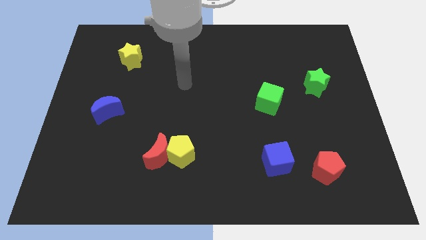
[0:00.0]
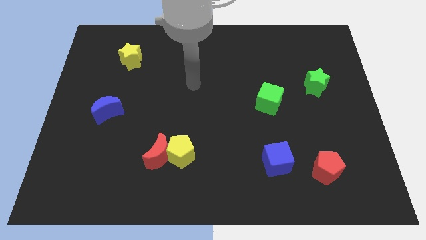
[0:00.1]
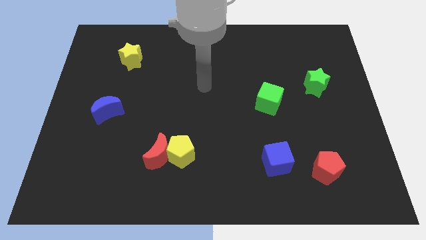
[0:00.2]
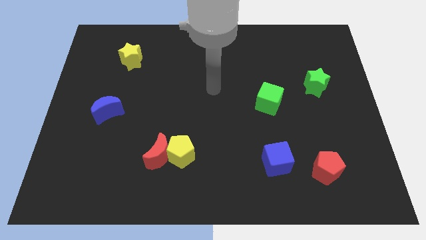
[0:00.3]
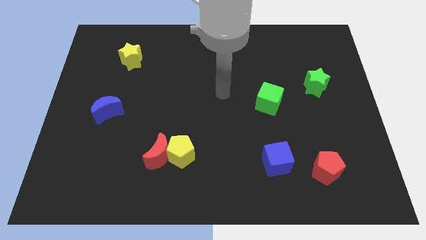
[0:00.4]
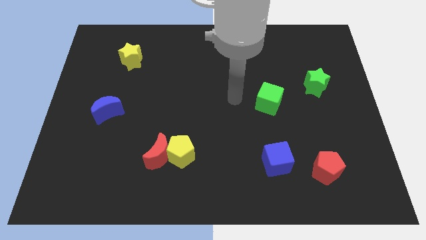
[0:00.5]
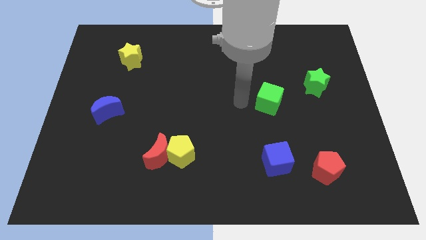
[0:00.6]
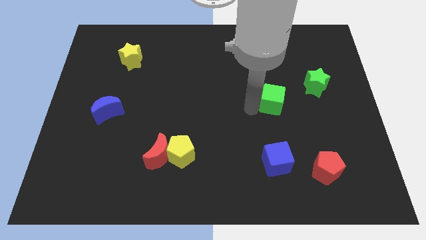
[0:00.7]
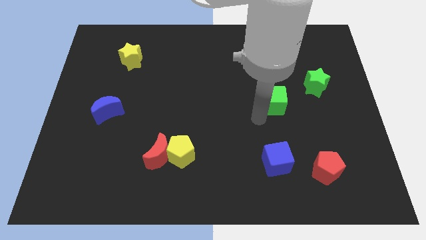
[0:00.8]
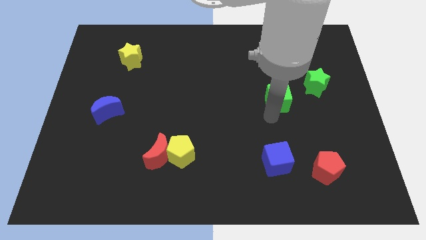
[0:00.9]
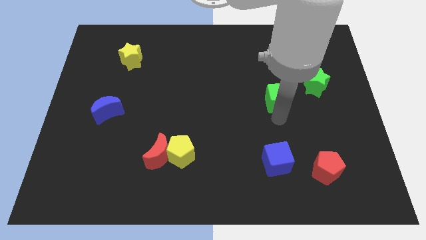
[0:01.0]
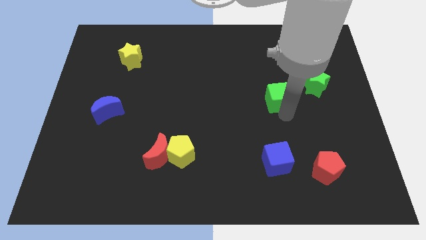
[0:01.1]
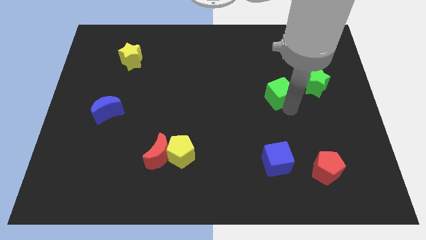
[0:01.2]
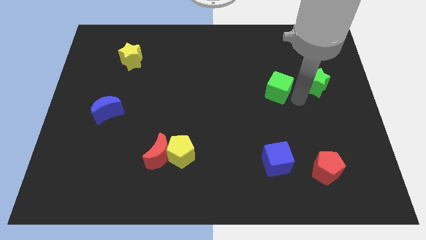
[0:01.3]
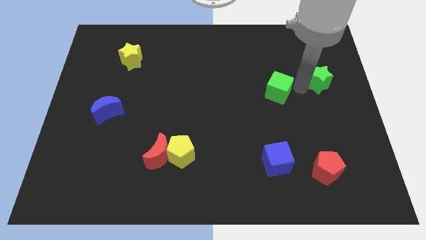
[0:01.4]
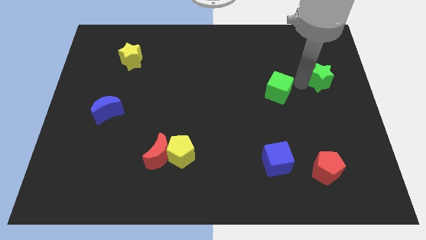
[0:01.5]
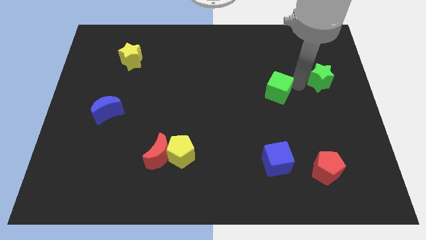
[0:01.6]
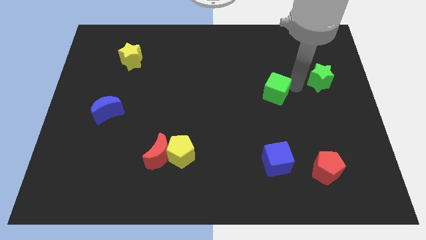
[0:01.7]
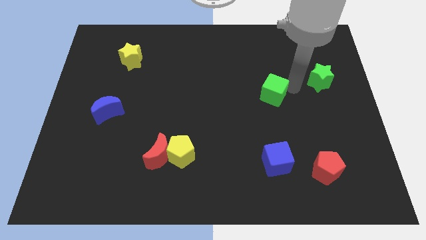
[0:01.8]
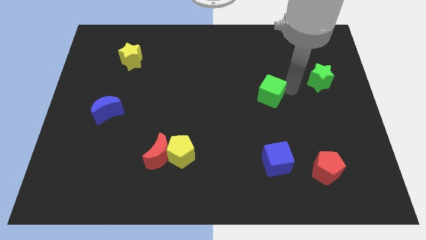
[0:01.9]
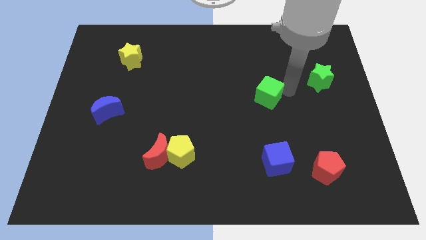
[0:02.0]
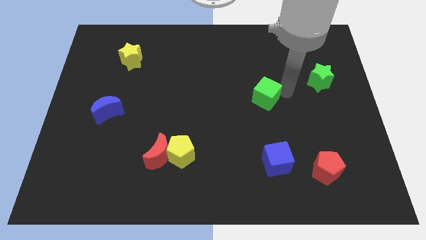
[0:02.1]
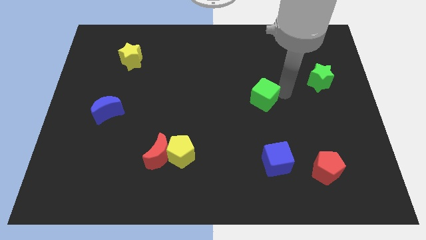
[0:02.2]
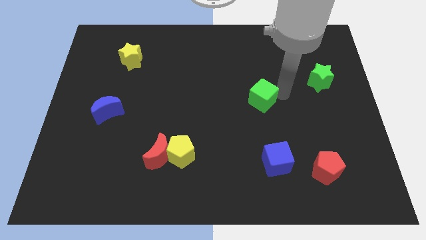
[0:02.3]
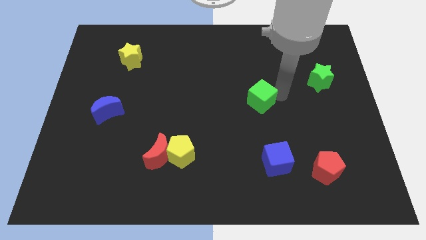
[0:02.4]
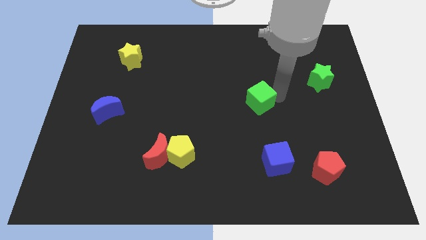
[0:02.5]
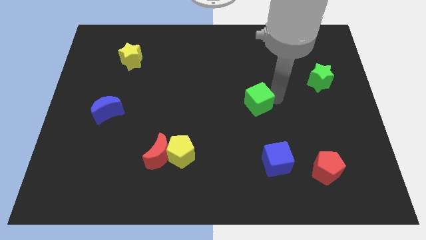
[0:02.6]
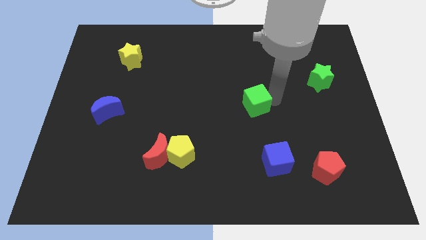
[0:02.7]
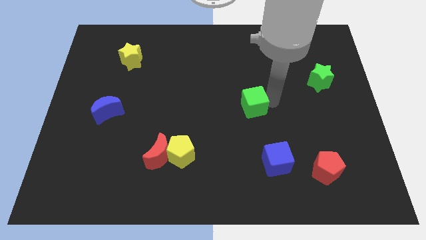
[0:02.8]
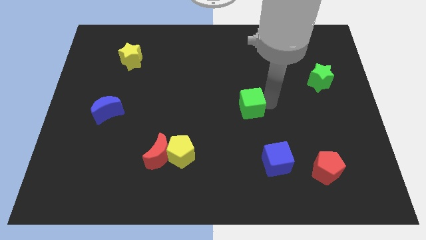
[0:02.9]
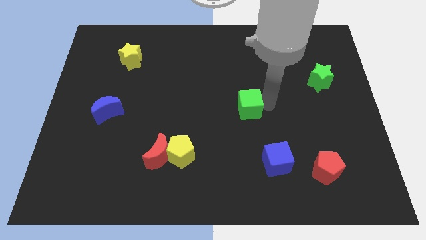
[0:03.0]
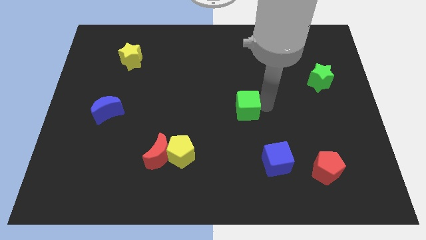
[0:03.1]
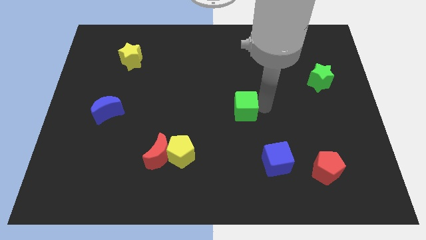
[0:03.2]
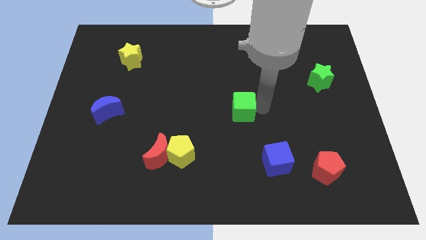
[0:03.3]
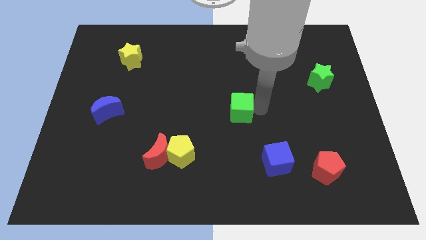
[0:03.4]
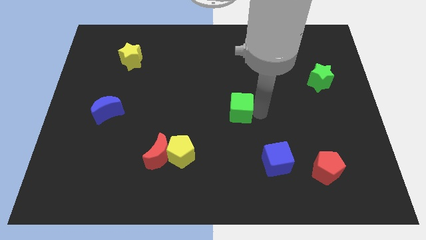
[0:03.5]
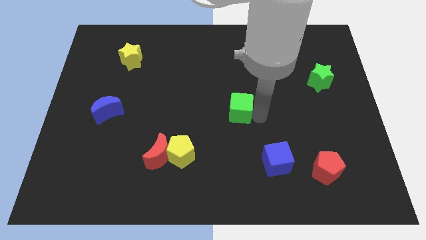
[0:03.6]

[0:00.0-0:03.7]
push the green cube a little left

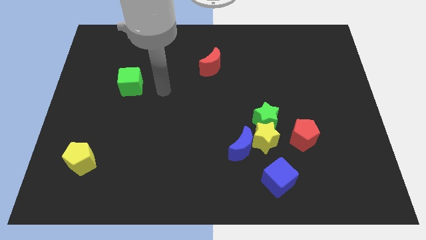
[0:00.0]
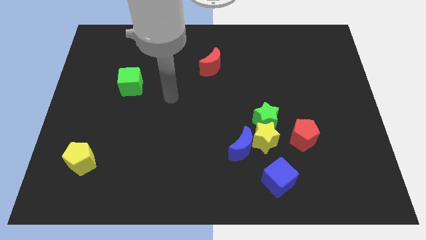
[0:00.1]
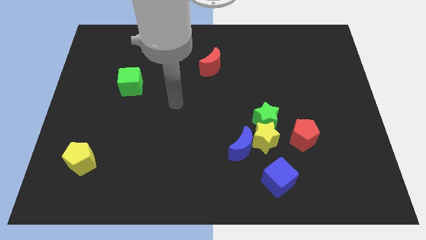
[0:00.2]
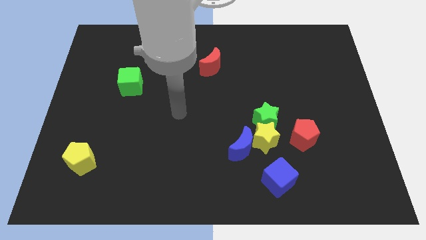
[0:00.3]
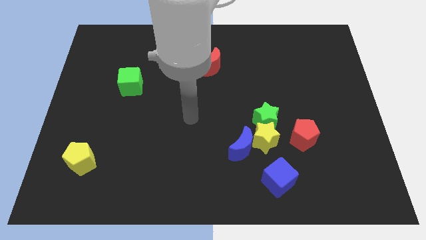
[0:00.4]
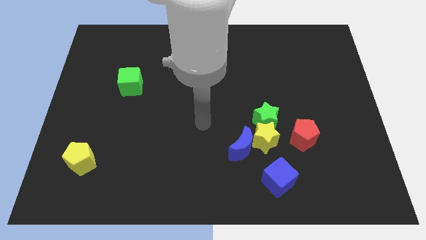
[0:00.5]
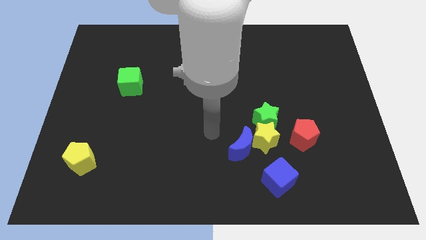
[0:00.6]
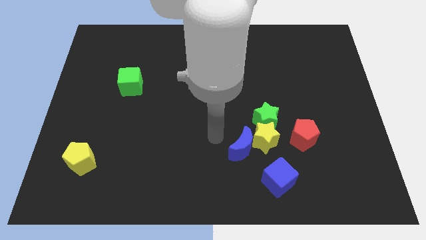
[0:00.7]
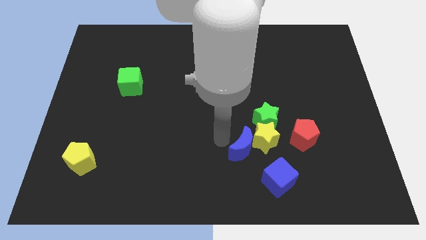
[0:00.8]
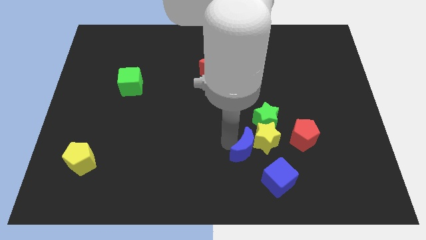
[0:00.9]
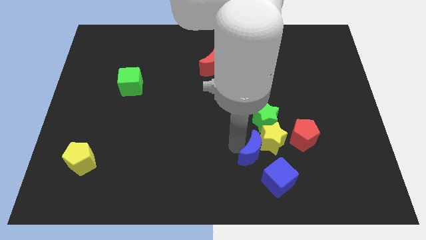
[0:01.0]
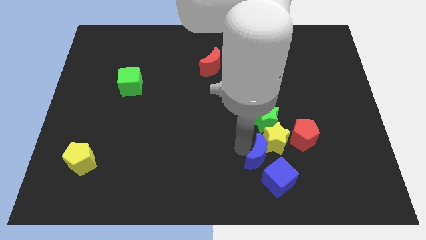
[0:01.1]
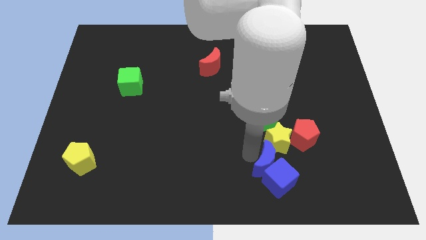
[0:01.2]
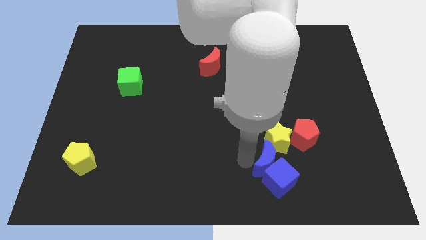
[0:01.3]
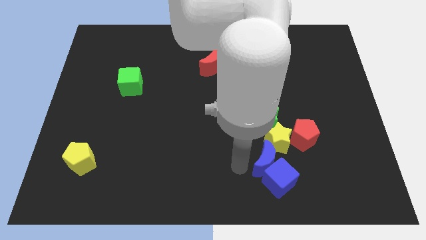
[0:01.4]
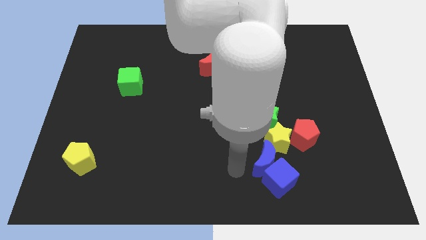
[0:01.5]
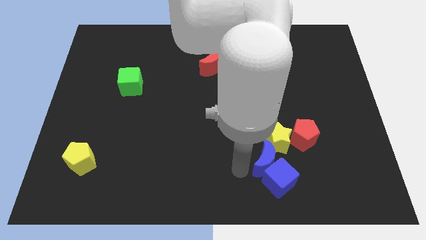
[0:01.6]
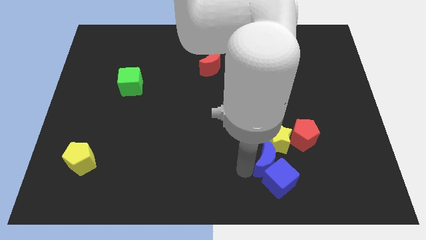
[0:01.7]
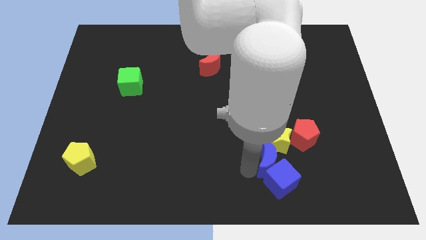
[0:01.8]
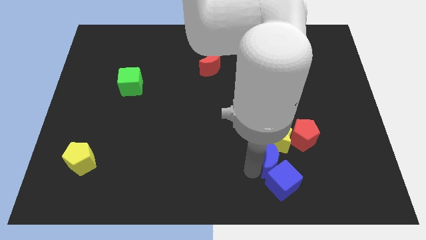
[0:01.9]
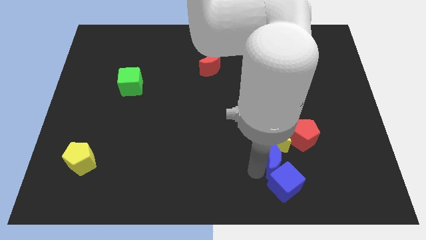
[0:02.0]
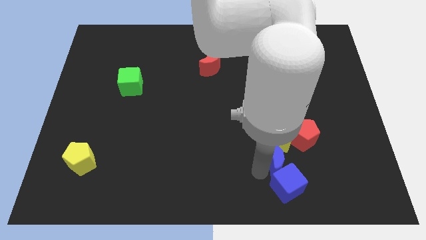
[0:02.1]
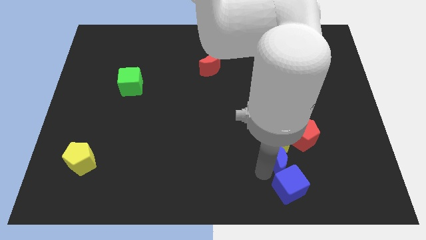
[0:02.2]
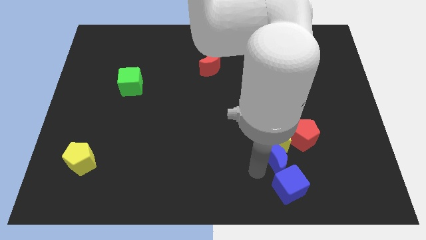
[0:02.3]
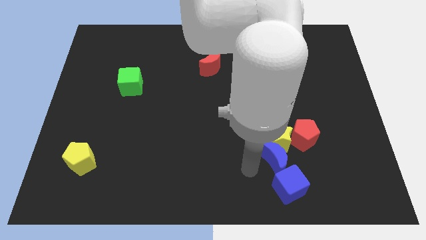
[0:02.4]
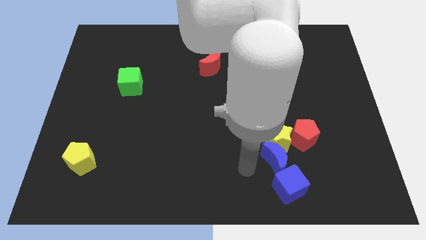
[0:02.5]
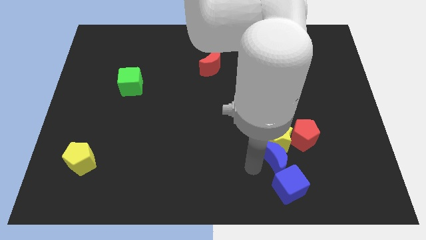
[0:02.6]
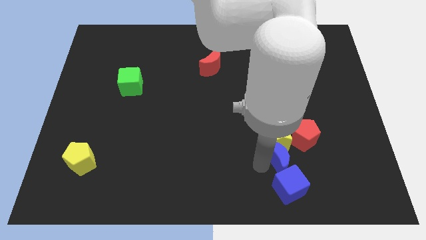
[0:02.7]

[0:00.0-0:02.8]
push the blue moon right a little

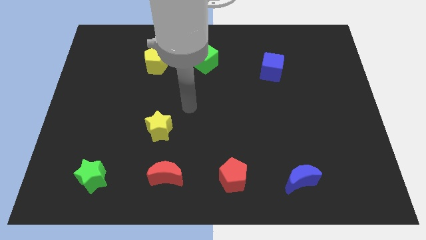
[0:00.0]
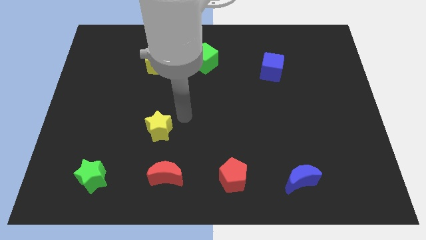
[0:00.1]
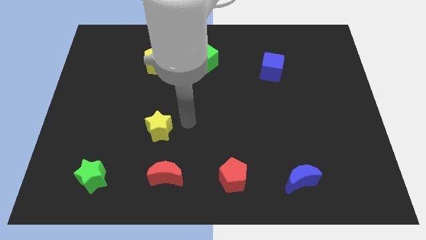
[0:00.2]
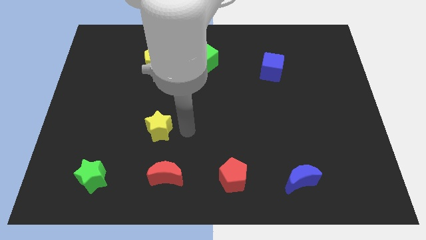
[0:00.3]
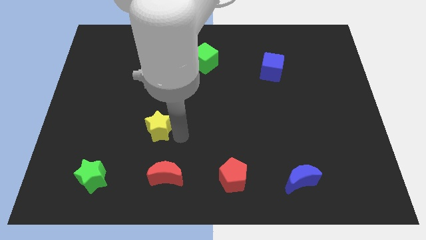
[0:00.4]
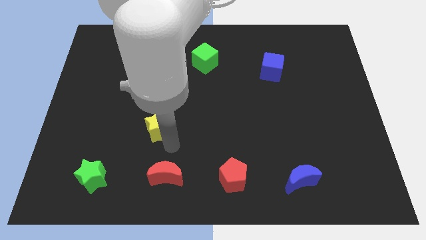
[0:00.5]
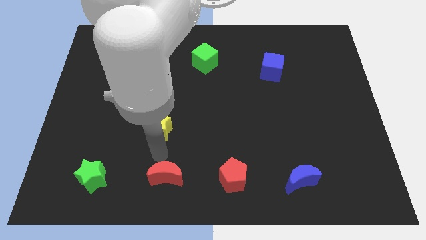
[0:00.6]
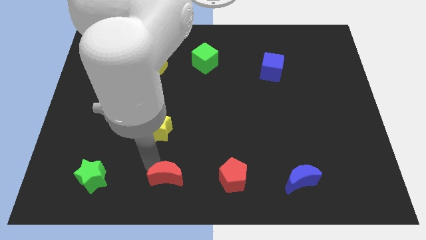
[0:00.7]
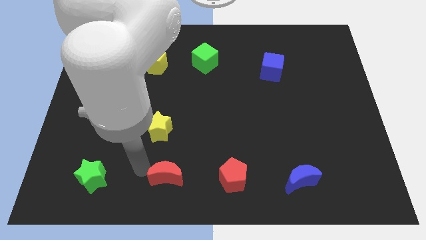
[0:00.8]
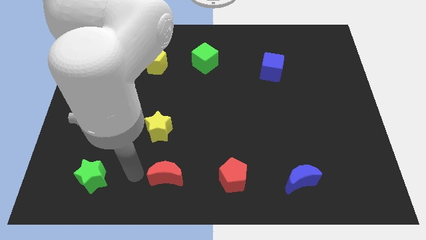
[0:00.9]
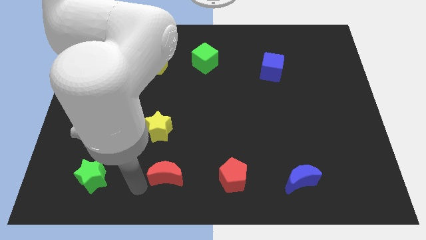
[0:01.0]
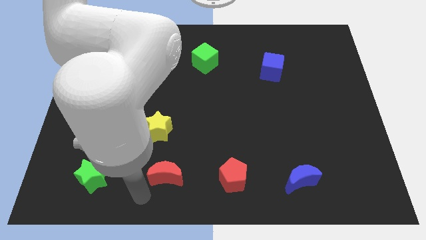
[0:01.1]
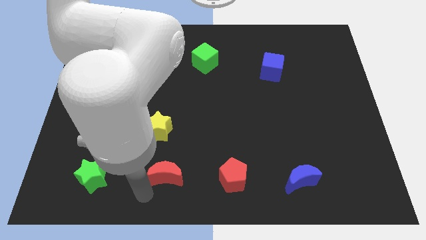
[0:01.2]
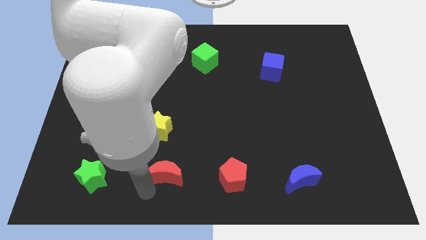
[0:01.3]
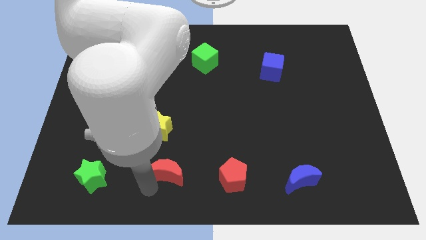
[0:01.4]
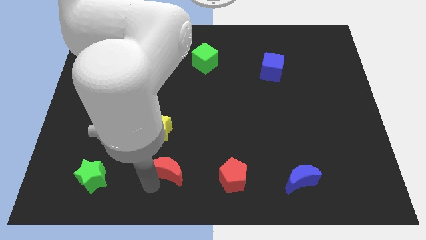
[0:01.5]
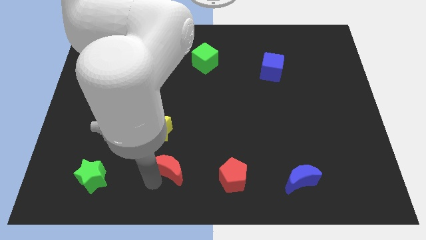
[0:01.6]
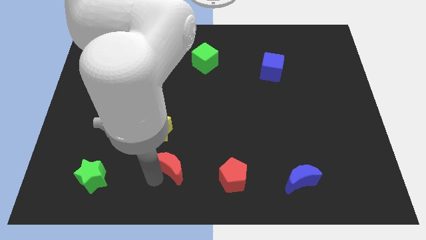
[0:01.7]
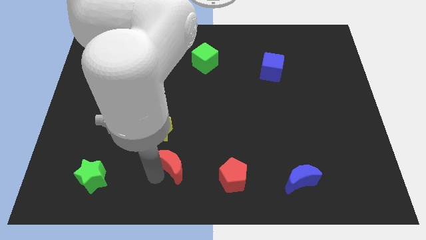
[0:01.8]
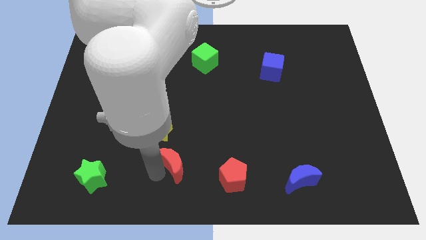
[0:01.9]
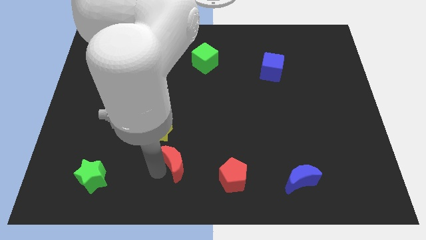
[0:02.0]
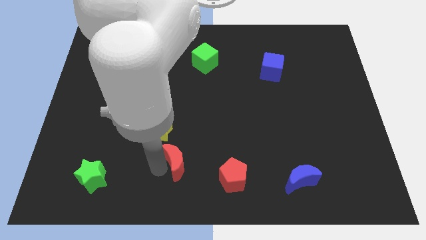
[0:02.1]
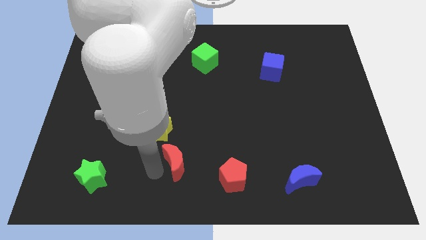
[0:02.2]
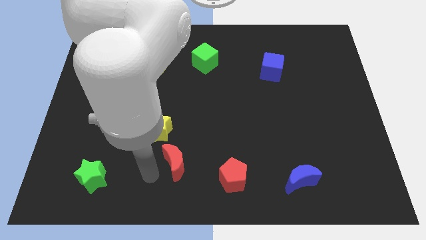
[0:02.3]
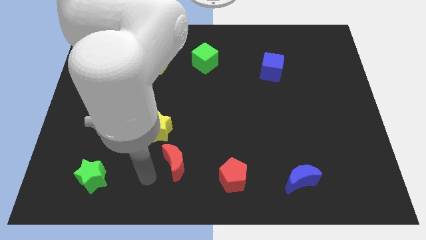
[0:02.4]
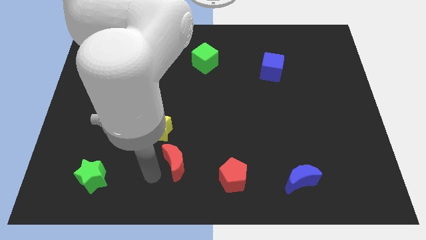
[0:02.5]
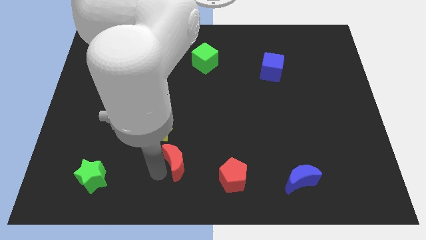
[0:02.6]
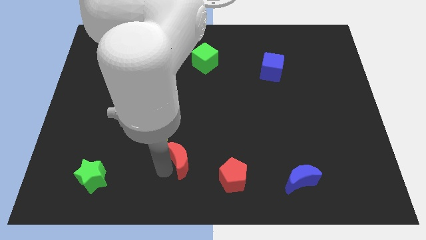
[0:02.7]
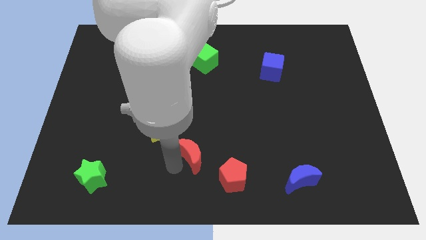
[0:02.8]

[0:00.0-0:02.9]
slightly push the red moon upwards and then right
